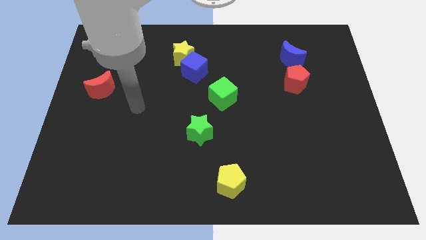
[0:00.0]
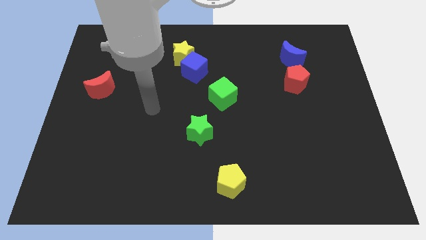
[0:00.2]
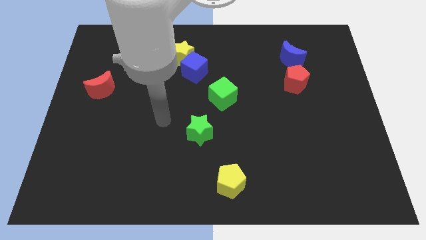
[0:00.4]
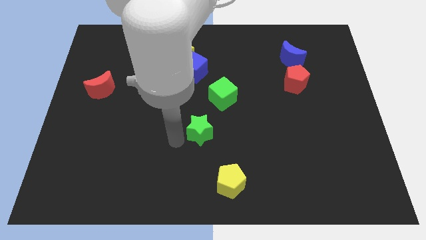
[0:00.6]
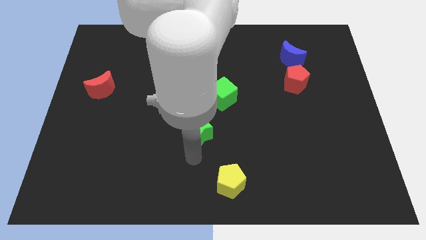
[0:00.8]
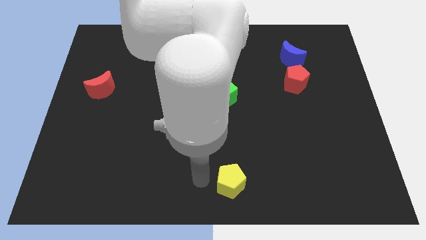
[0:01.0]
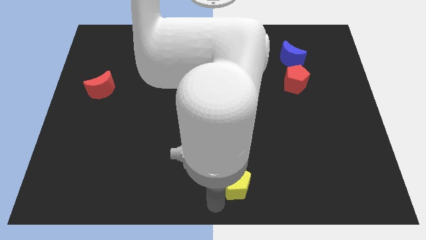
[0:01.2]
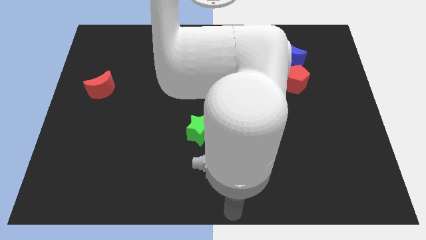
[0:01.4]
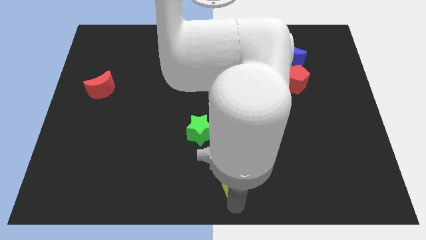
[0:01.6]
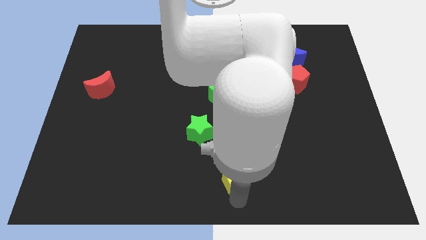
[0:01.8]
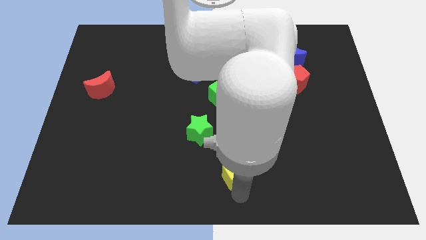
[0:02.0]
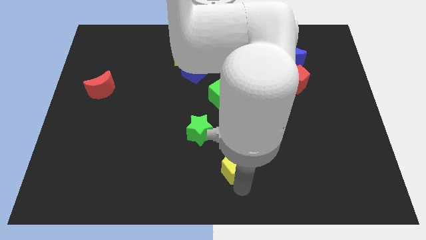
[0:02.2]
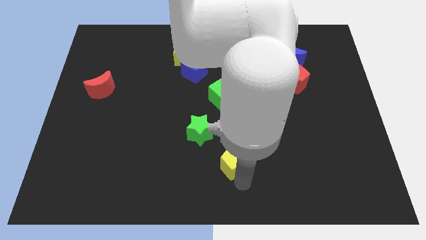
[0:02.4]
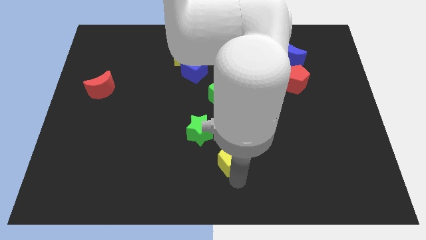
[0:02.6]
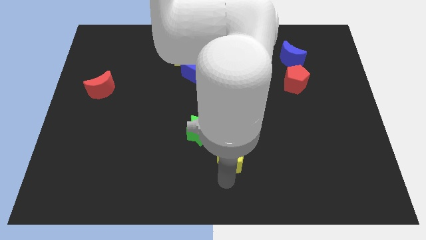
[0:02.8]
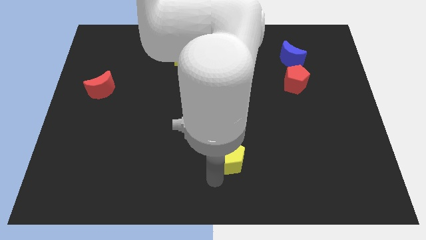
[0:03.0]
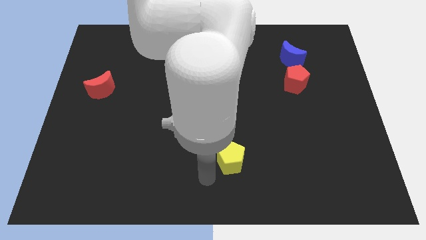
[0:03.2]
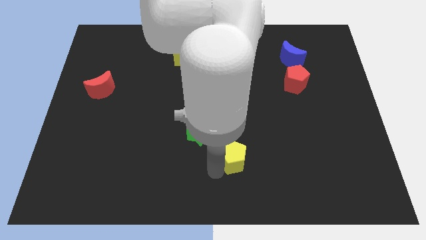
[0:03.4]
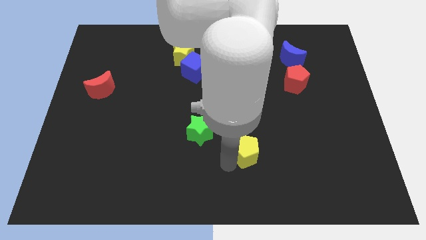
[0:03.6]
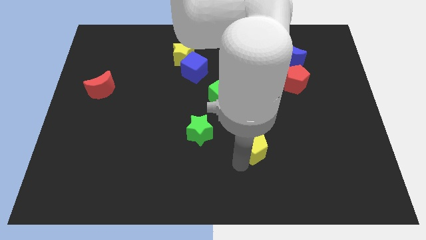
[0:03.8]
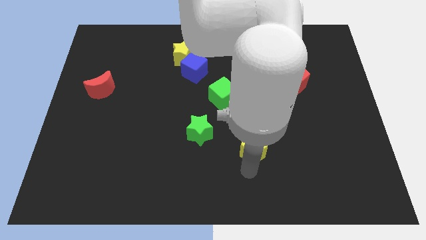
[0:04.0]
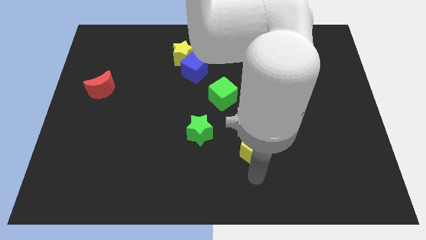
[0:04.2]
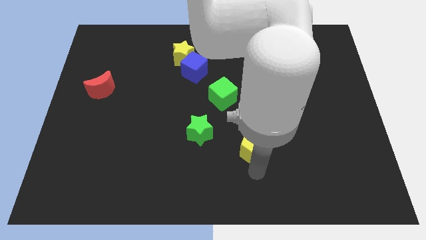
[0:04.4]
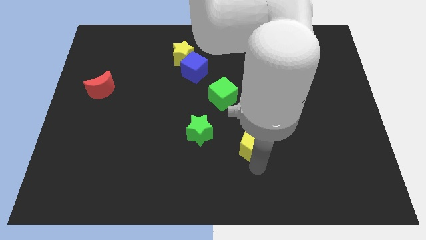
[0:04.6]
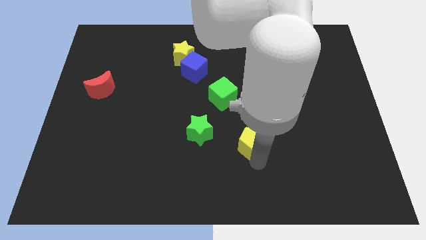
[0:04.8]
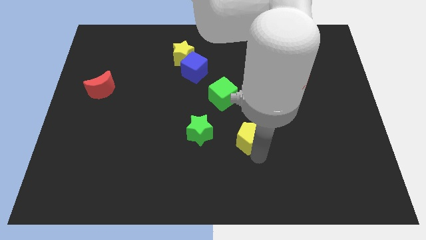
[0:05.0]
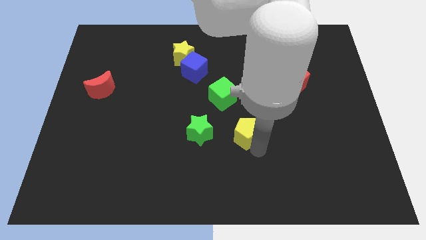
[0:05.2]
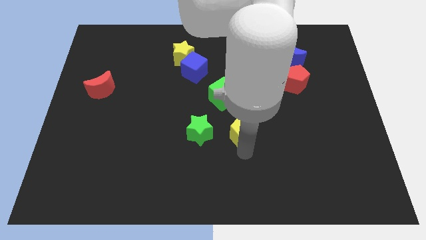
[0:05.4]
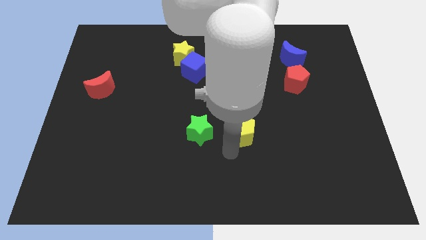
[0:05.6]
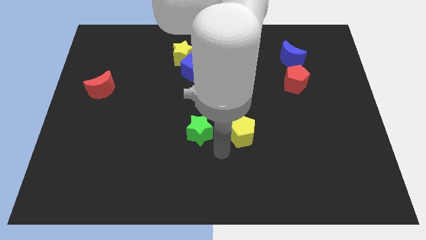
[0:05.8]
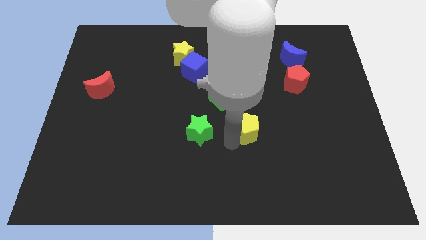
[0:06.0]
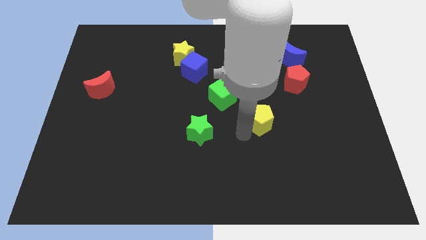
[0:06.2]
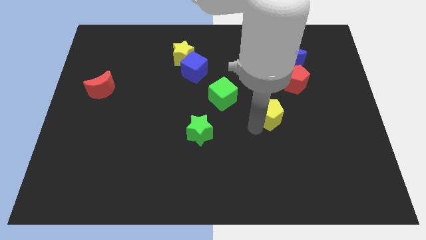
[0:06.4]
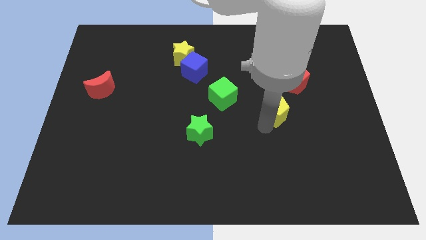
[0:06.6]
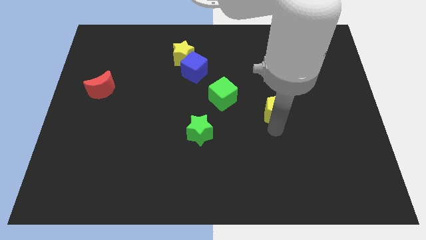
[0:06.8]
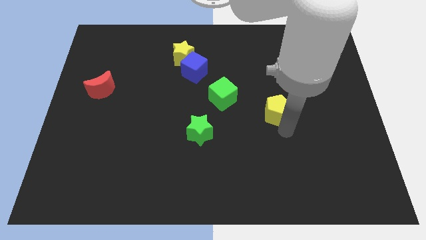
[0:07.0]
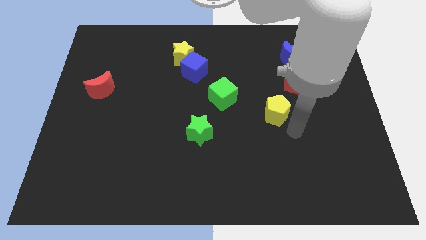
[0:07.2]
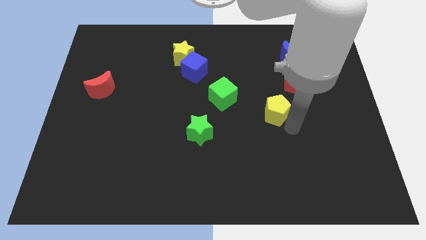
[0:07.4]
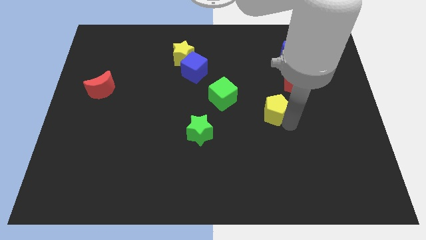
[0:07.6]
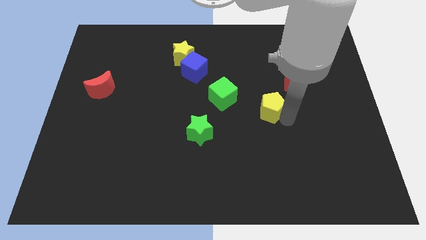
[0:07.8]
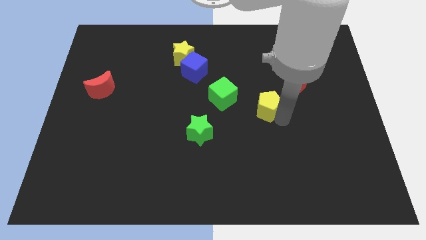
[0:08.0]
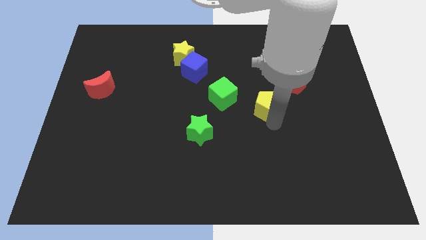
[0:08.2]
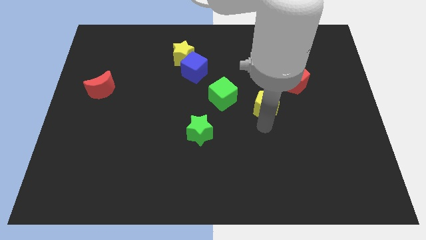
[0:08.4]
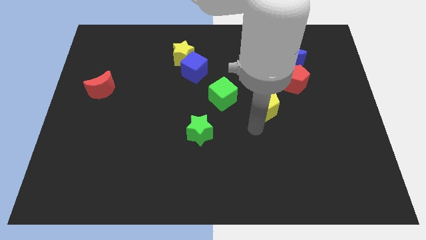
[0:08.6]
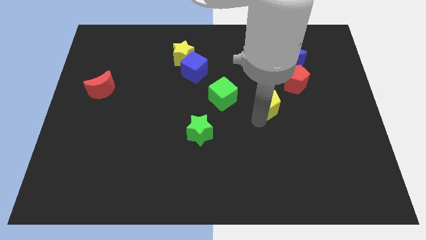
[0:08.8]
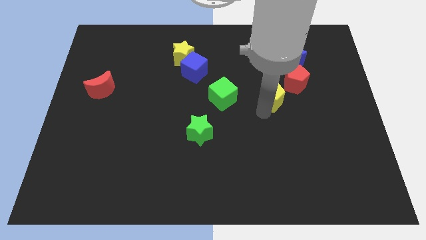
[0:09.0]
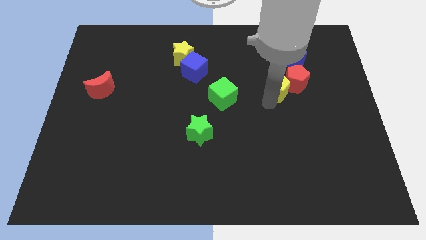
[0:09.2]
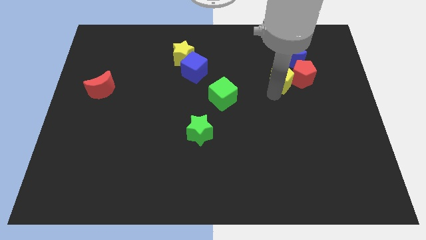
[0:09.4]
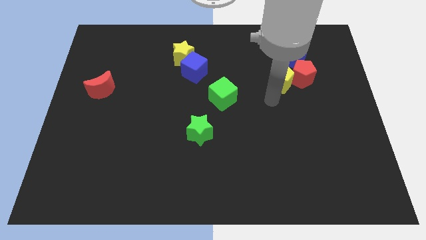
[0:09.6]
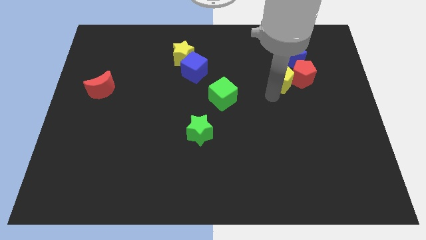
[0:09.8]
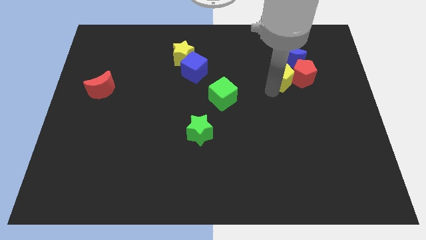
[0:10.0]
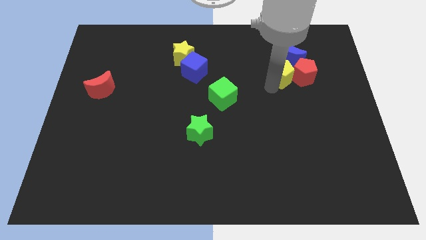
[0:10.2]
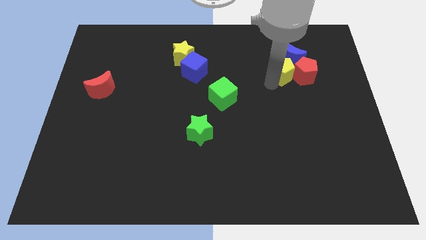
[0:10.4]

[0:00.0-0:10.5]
push the yellow pentagon next to the blue moon

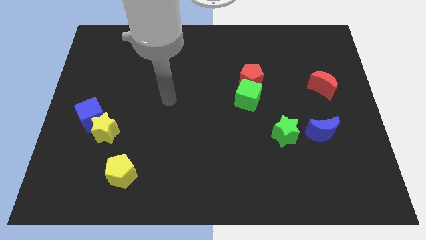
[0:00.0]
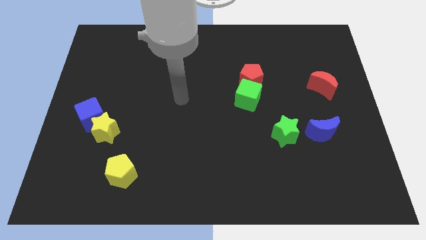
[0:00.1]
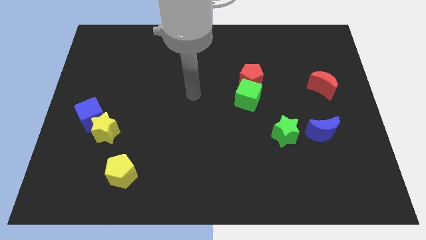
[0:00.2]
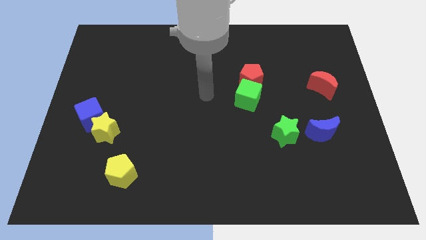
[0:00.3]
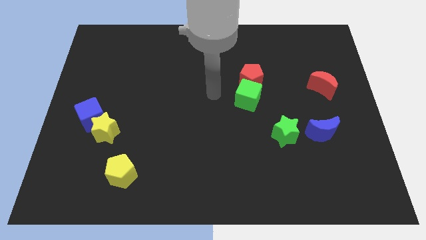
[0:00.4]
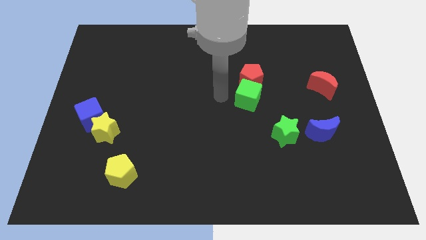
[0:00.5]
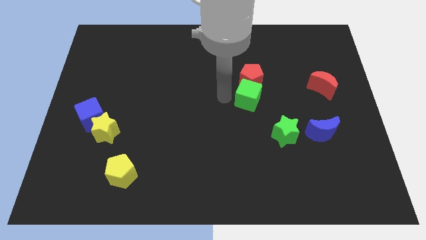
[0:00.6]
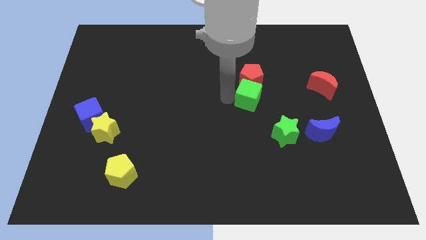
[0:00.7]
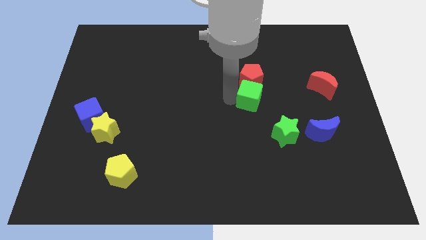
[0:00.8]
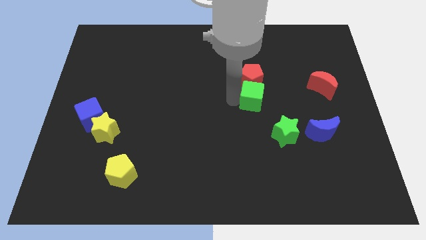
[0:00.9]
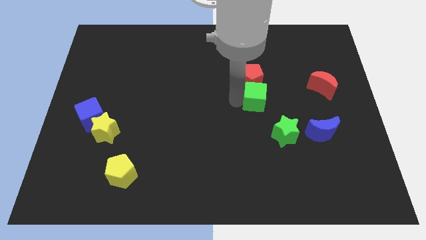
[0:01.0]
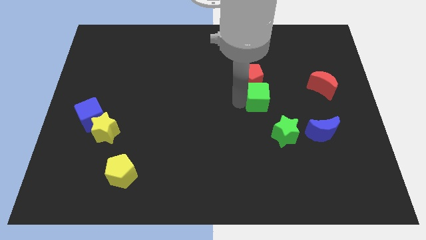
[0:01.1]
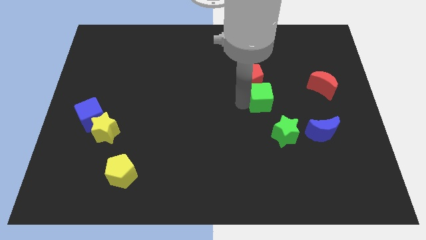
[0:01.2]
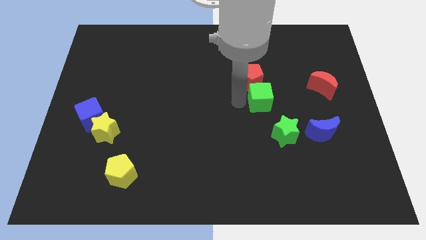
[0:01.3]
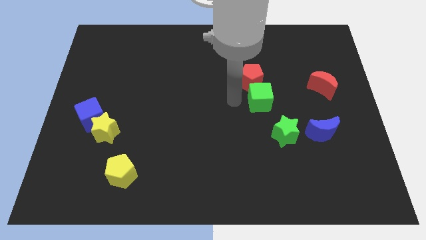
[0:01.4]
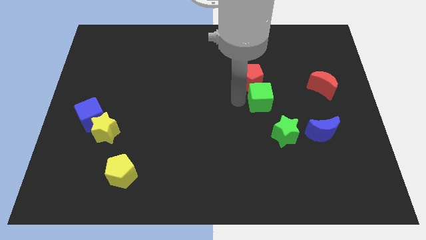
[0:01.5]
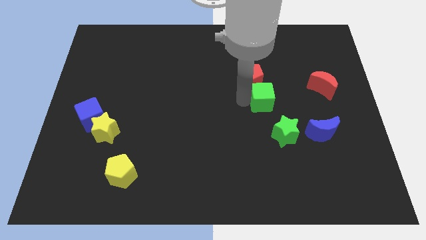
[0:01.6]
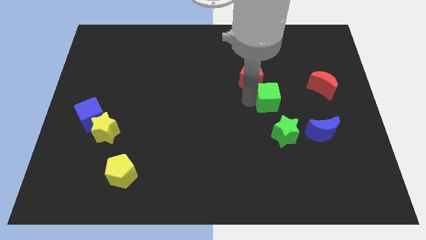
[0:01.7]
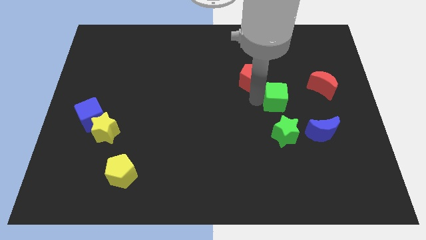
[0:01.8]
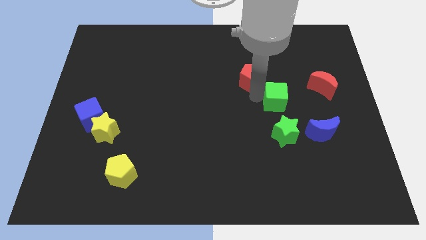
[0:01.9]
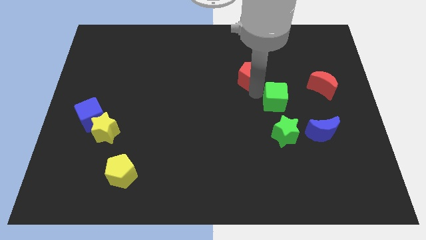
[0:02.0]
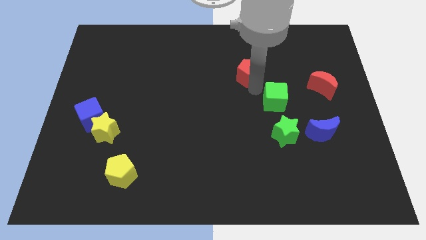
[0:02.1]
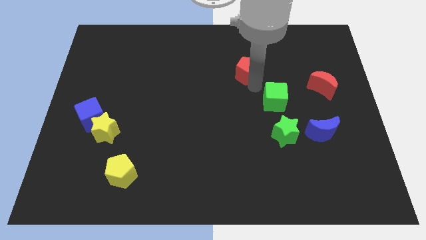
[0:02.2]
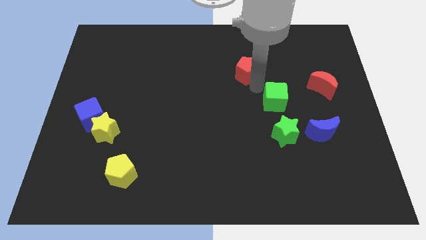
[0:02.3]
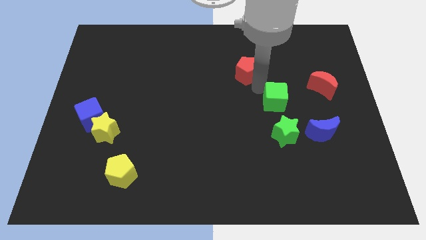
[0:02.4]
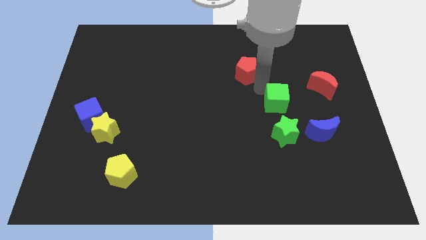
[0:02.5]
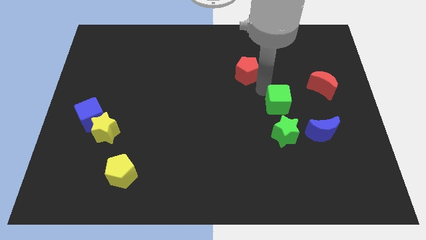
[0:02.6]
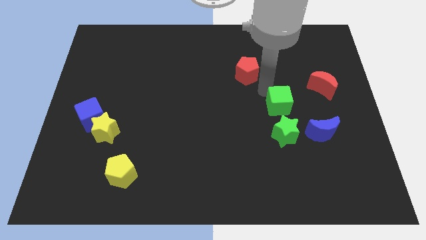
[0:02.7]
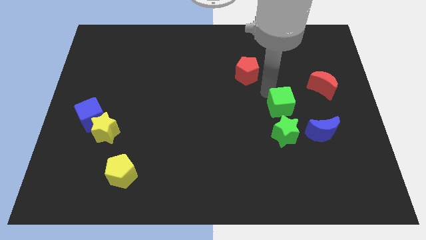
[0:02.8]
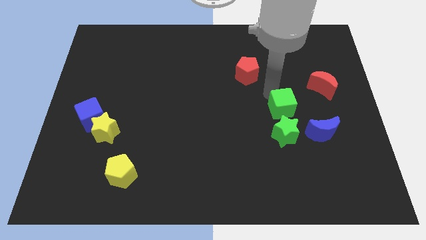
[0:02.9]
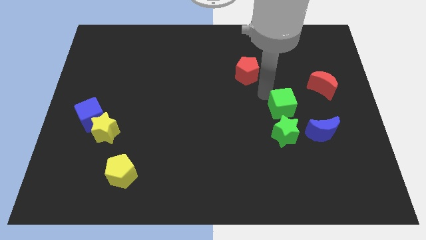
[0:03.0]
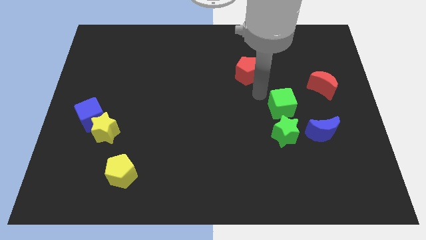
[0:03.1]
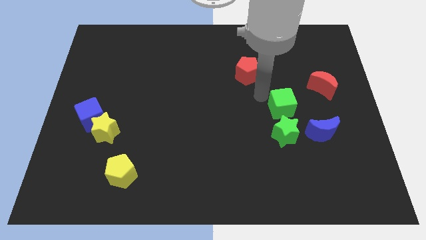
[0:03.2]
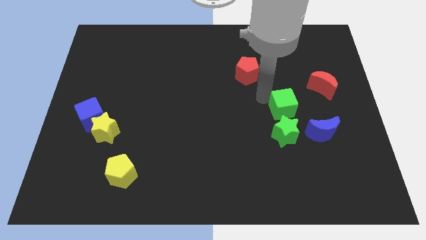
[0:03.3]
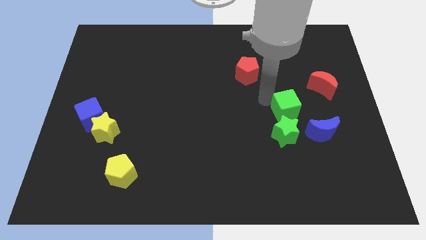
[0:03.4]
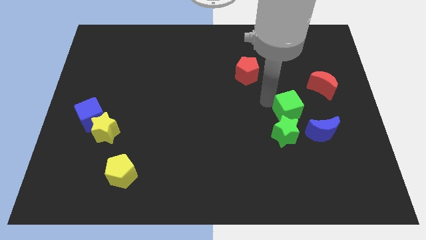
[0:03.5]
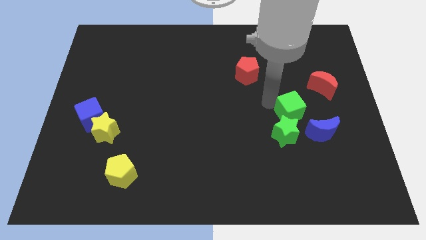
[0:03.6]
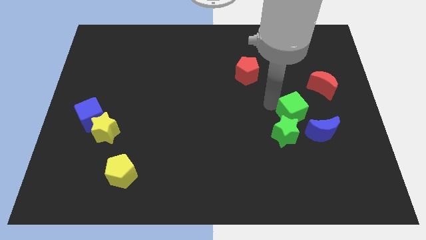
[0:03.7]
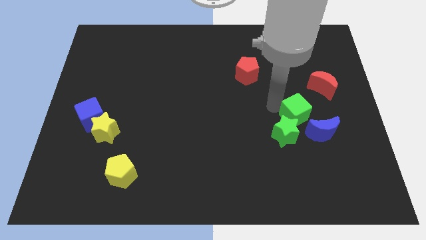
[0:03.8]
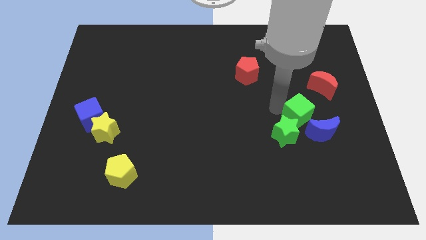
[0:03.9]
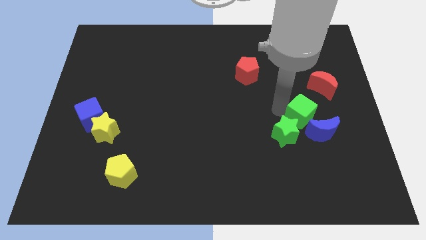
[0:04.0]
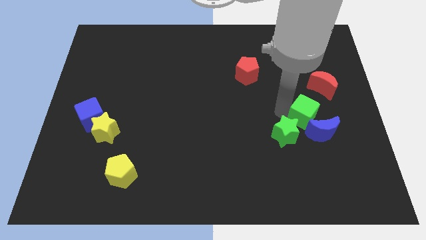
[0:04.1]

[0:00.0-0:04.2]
slide the green cube close to the blue moon
